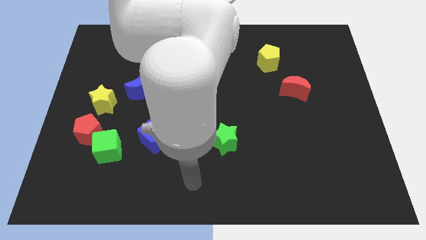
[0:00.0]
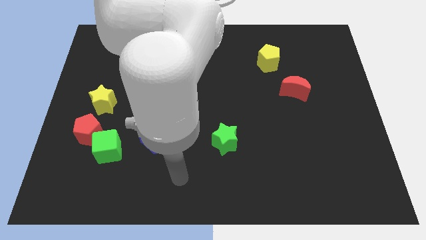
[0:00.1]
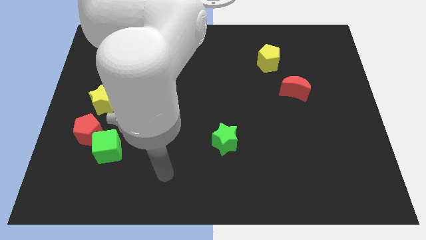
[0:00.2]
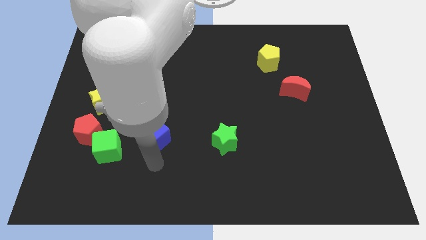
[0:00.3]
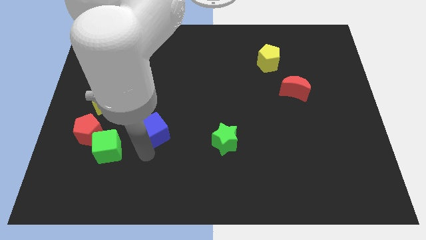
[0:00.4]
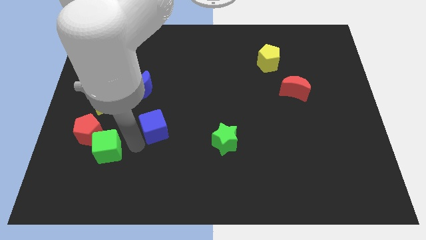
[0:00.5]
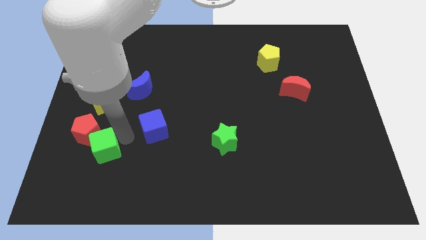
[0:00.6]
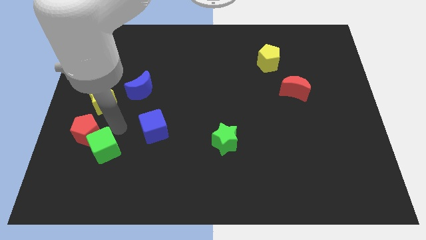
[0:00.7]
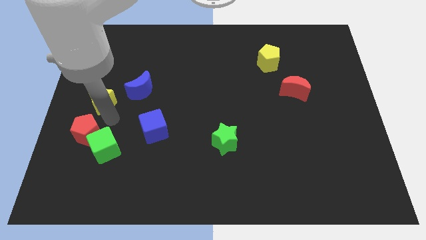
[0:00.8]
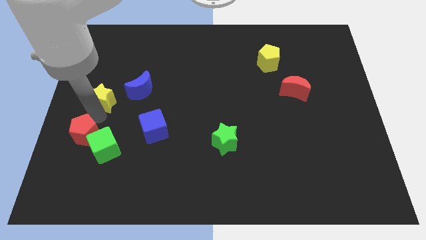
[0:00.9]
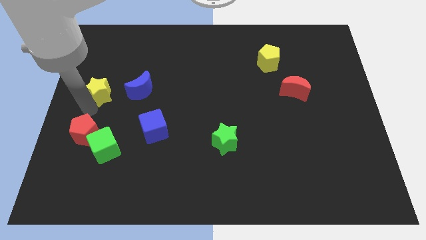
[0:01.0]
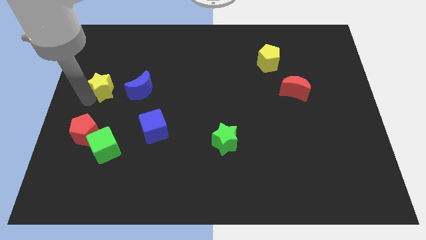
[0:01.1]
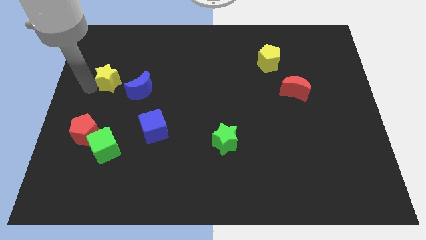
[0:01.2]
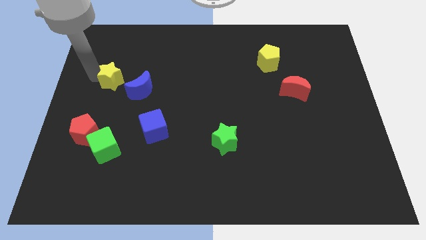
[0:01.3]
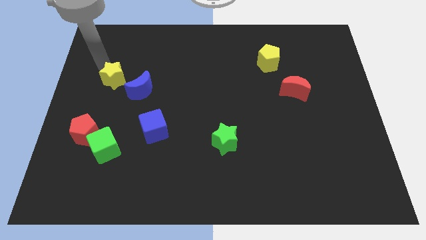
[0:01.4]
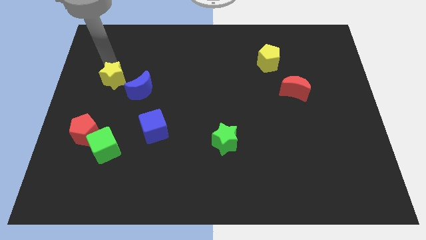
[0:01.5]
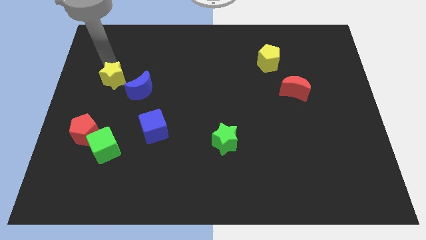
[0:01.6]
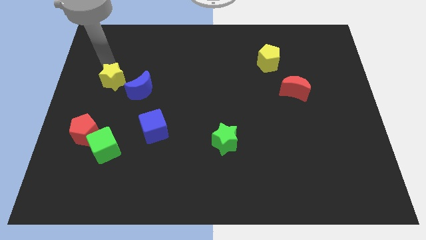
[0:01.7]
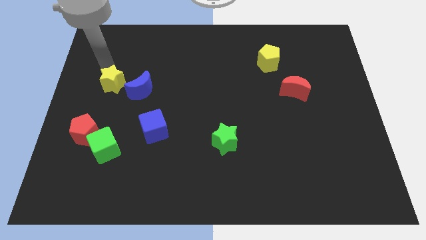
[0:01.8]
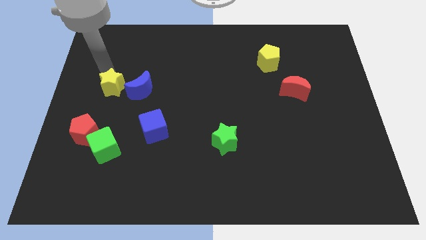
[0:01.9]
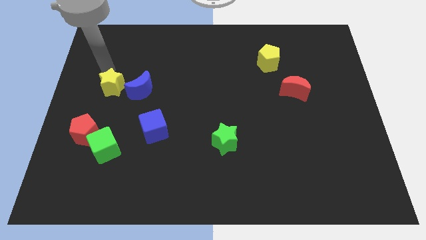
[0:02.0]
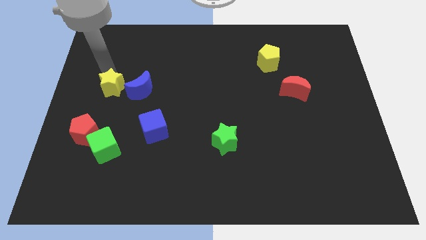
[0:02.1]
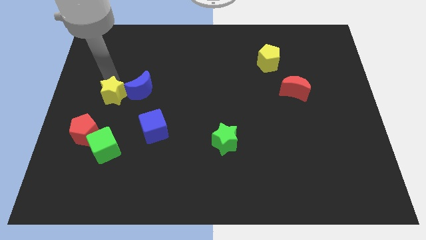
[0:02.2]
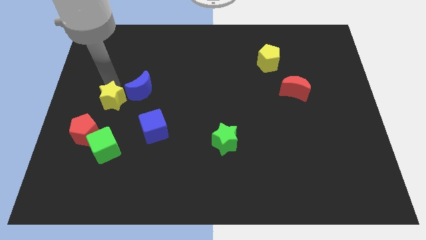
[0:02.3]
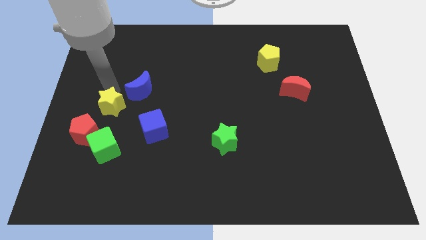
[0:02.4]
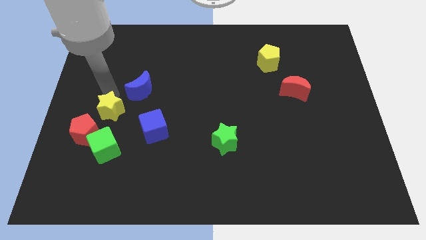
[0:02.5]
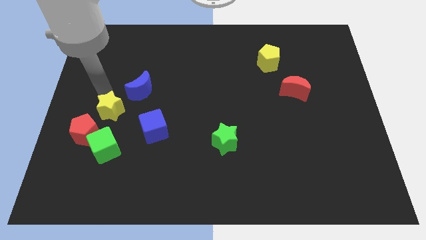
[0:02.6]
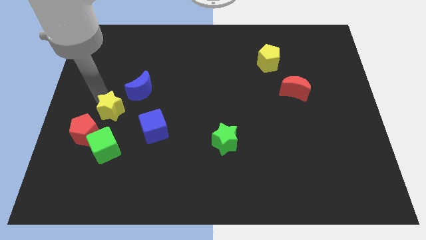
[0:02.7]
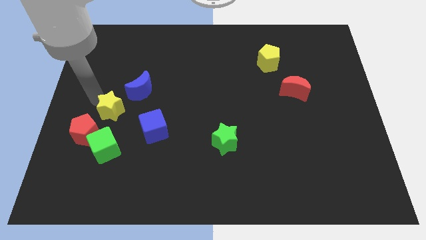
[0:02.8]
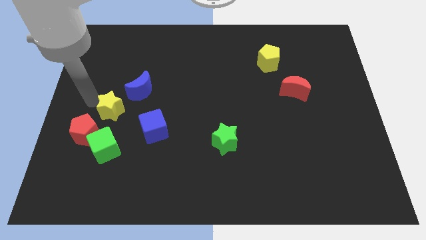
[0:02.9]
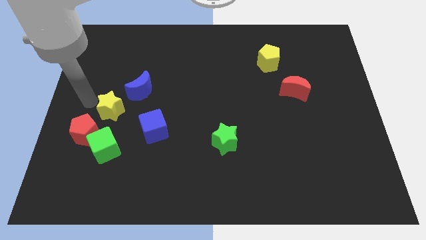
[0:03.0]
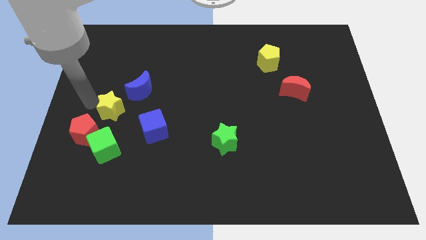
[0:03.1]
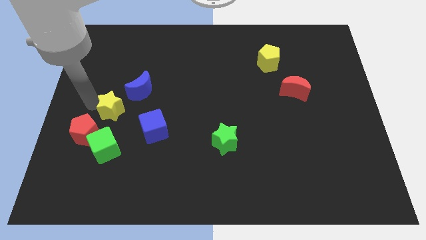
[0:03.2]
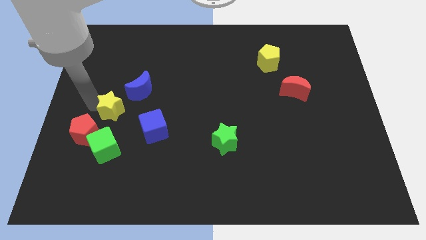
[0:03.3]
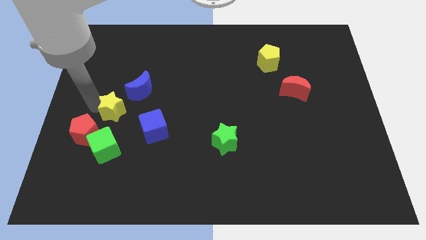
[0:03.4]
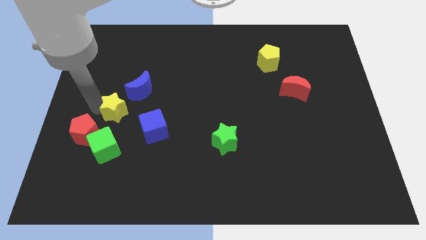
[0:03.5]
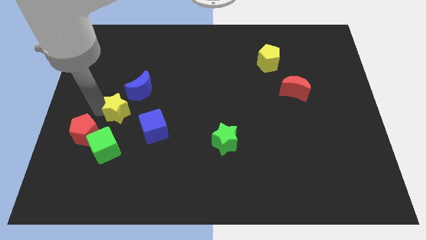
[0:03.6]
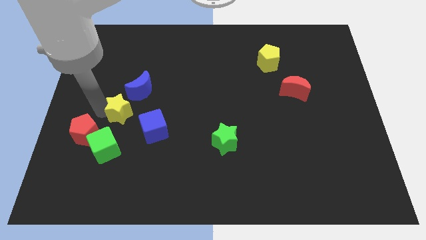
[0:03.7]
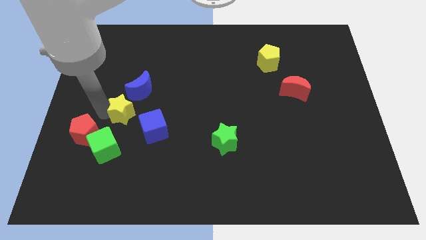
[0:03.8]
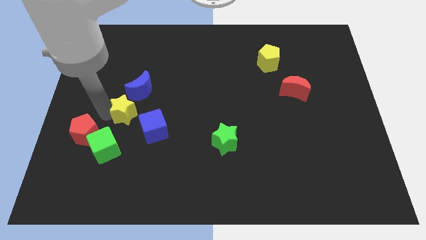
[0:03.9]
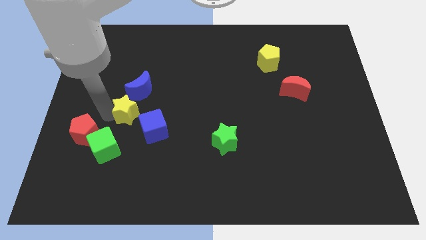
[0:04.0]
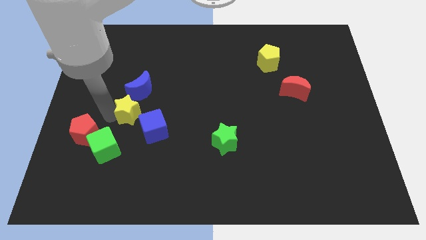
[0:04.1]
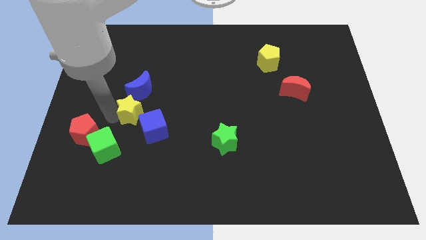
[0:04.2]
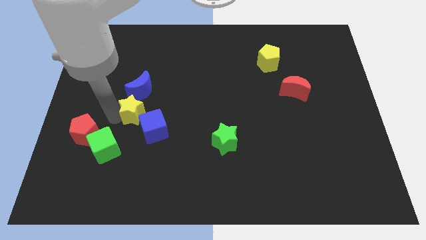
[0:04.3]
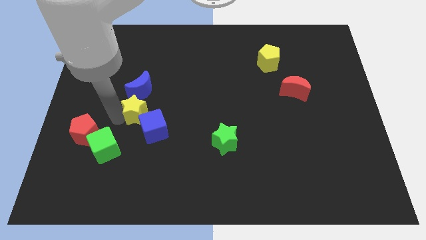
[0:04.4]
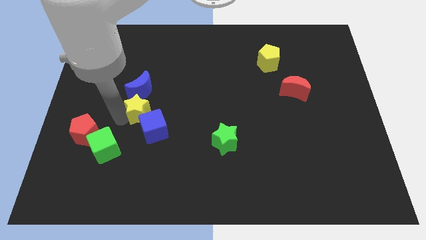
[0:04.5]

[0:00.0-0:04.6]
put the yellow star close to the blue cube

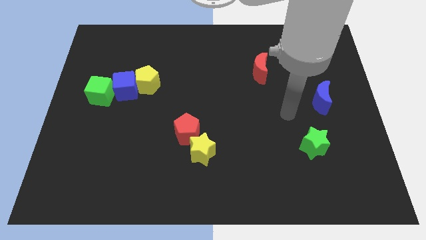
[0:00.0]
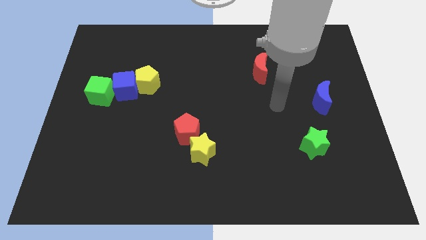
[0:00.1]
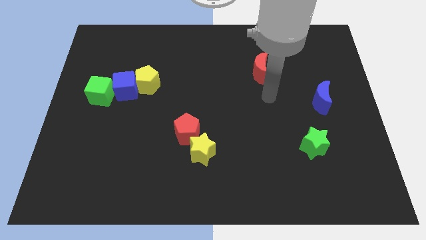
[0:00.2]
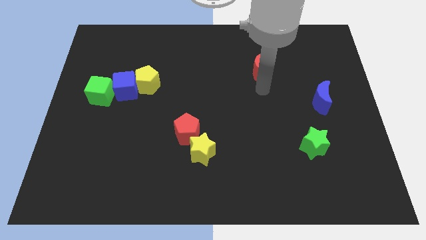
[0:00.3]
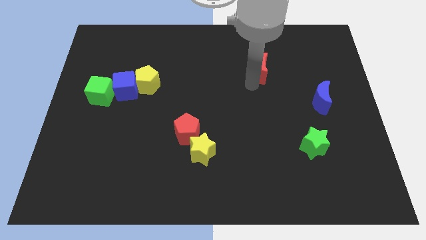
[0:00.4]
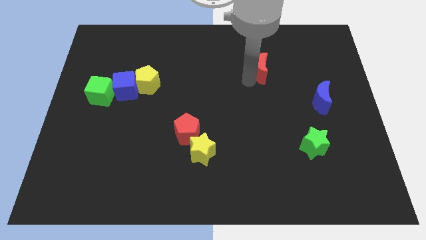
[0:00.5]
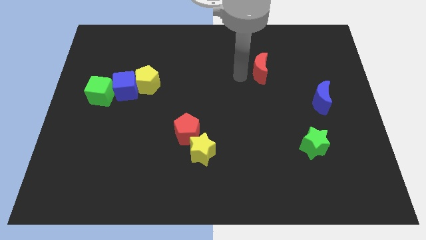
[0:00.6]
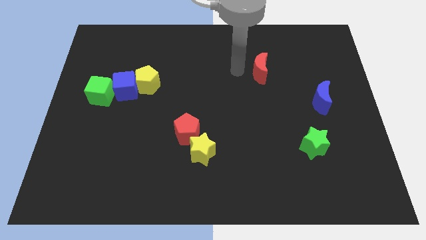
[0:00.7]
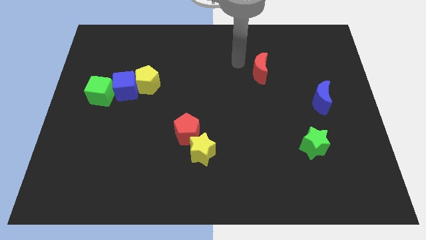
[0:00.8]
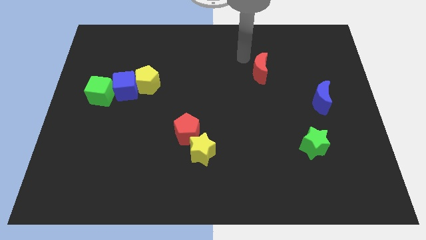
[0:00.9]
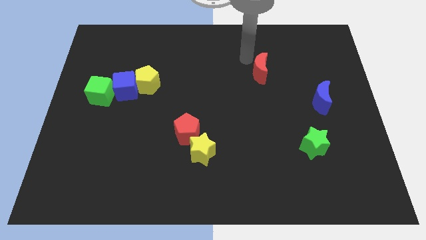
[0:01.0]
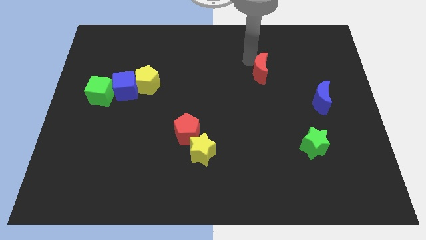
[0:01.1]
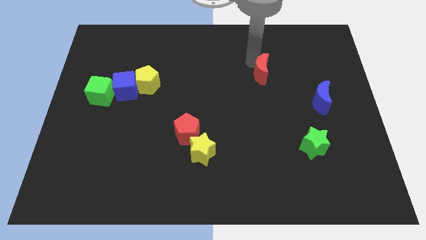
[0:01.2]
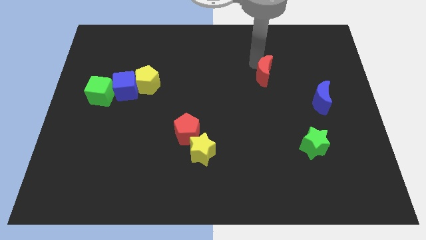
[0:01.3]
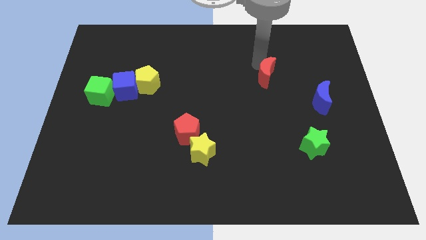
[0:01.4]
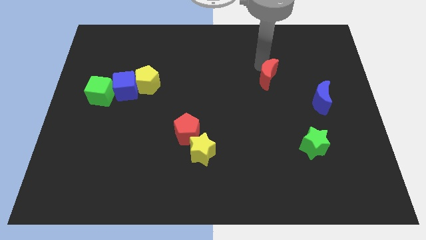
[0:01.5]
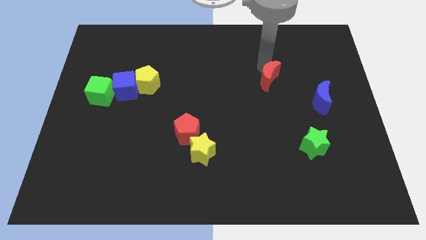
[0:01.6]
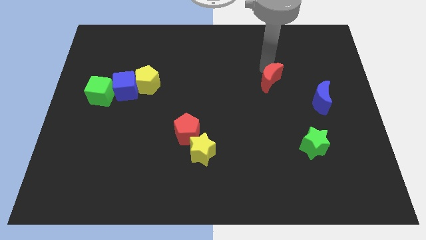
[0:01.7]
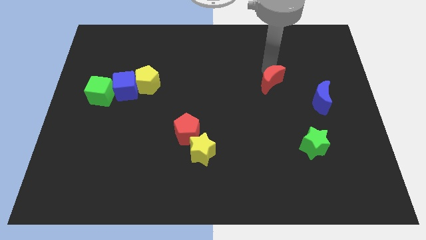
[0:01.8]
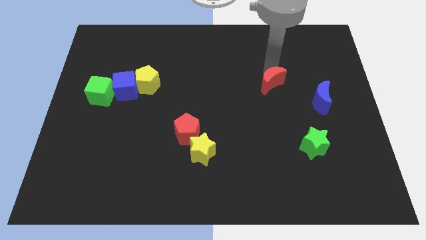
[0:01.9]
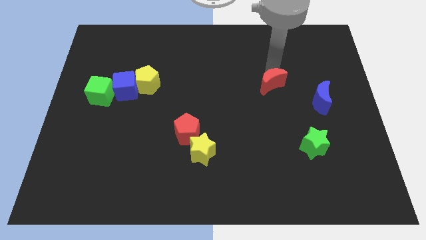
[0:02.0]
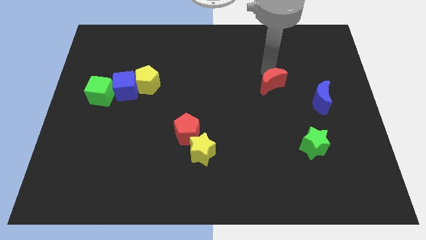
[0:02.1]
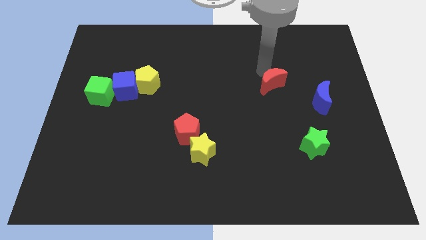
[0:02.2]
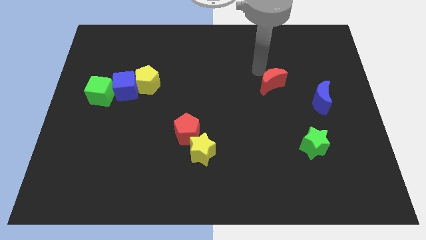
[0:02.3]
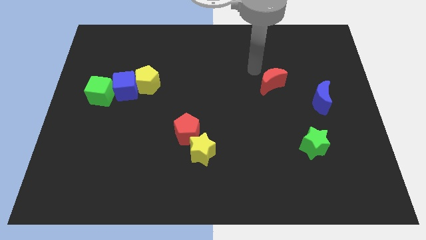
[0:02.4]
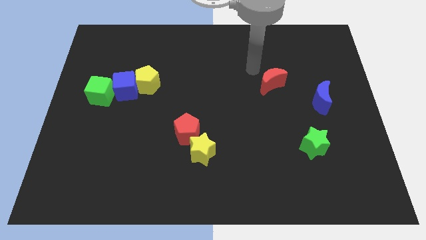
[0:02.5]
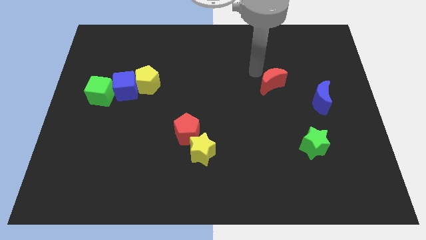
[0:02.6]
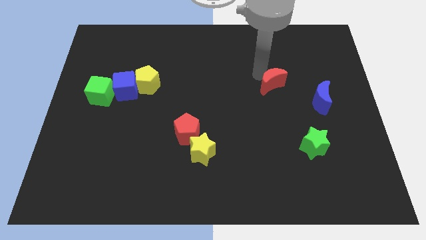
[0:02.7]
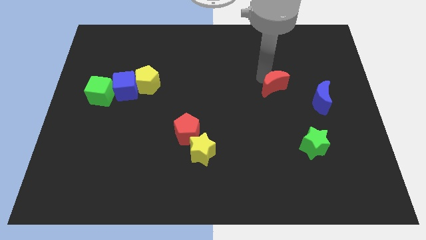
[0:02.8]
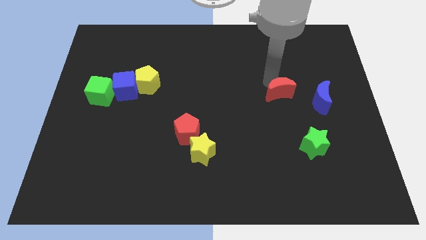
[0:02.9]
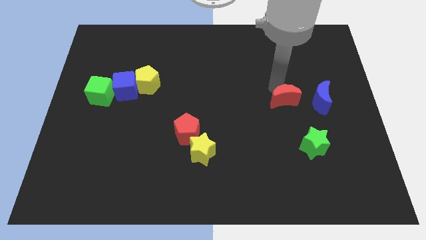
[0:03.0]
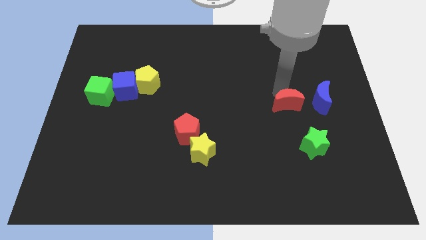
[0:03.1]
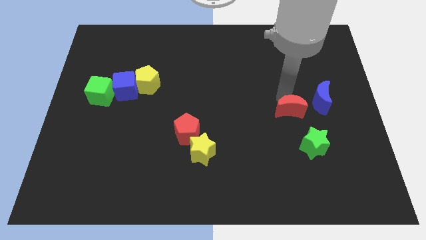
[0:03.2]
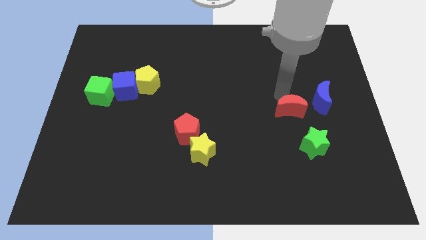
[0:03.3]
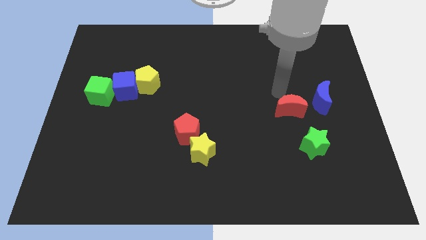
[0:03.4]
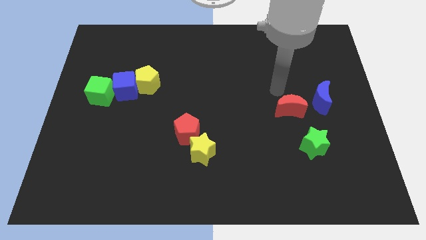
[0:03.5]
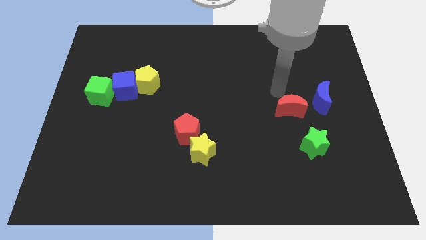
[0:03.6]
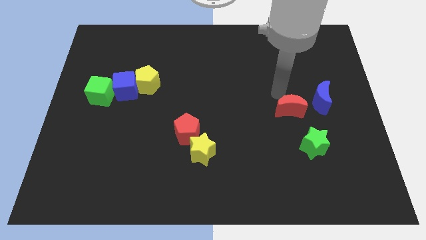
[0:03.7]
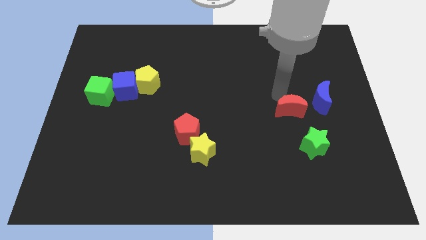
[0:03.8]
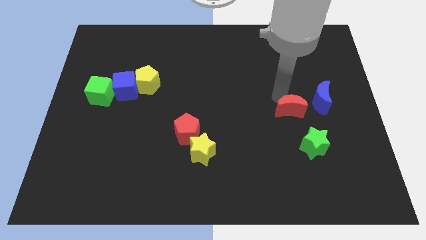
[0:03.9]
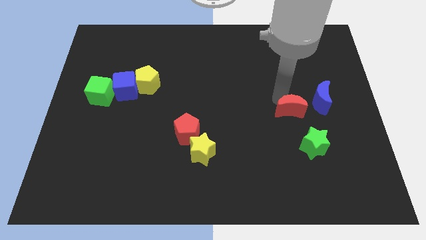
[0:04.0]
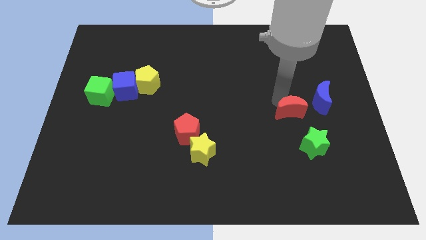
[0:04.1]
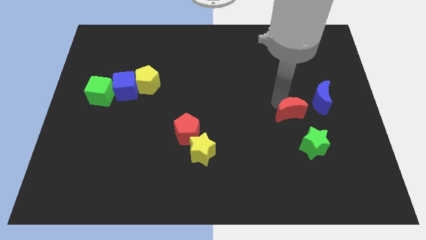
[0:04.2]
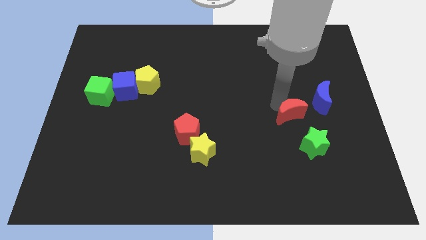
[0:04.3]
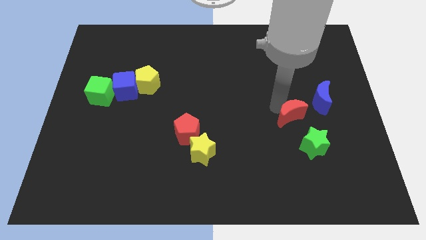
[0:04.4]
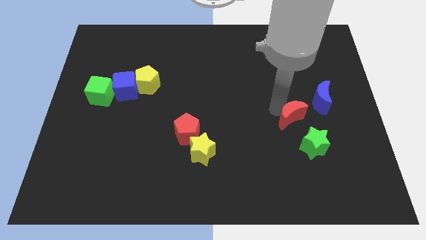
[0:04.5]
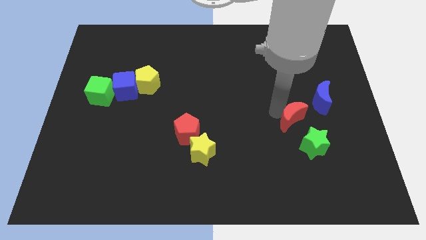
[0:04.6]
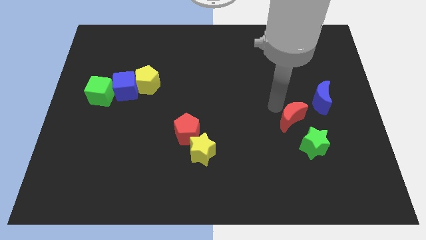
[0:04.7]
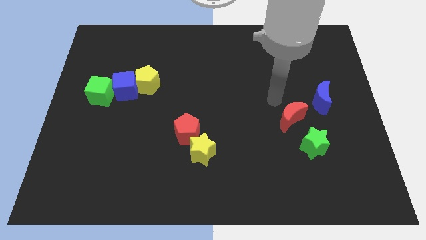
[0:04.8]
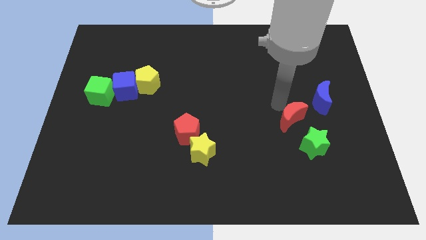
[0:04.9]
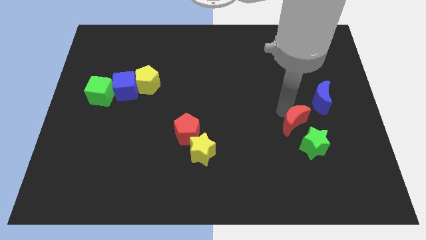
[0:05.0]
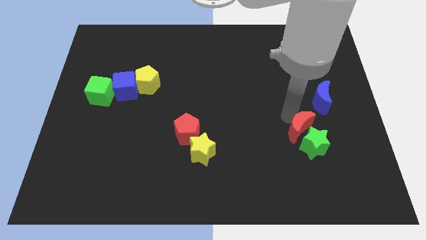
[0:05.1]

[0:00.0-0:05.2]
put the red moon close to the green star
